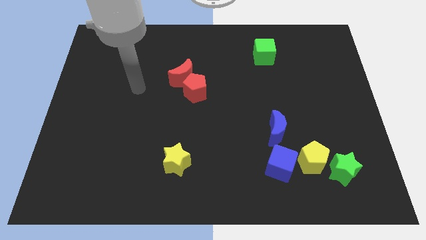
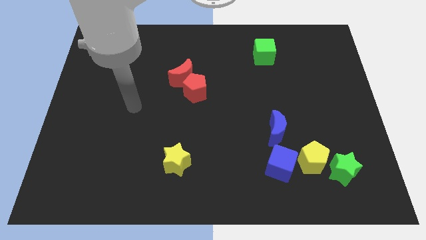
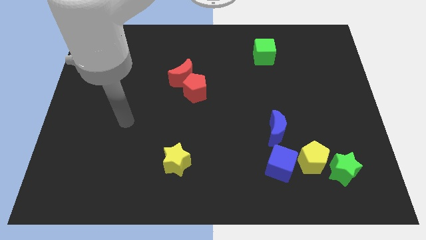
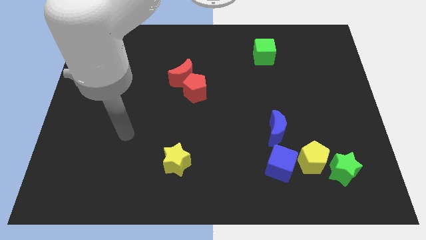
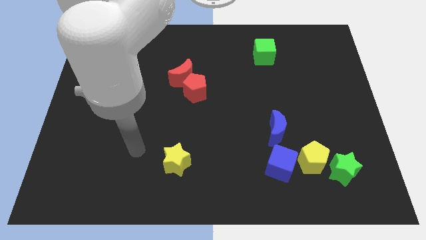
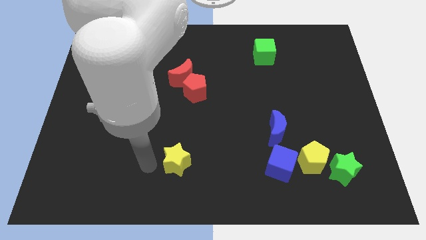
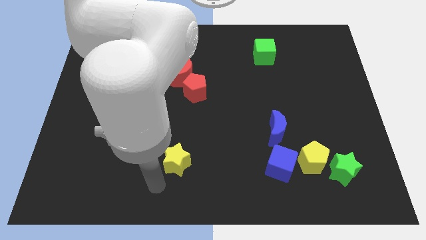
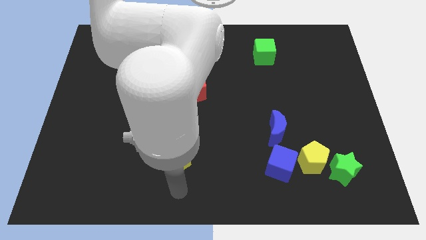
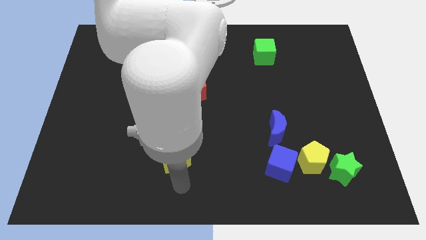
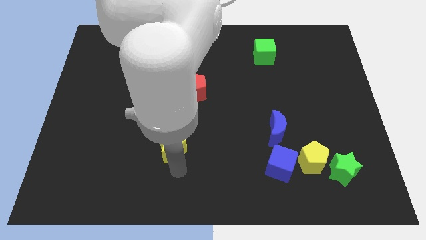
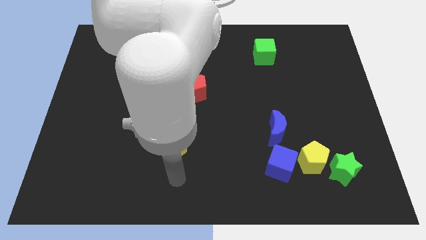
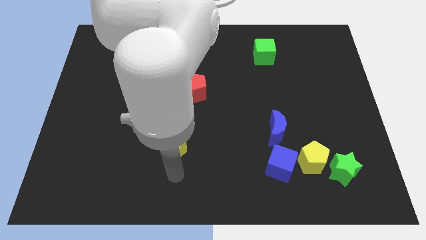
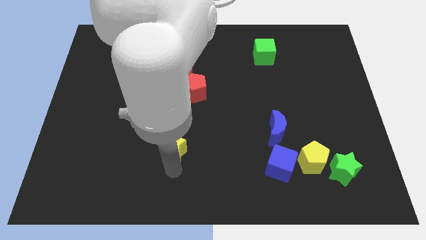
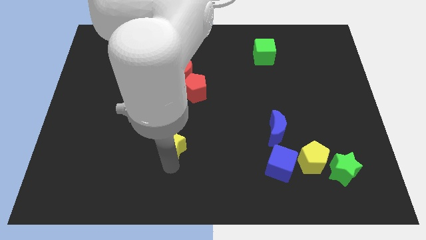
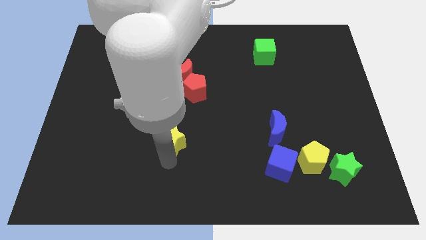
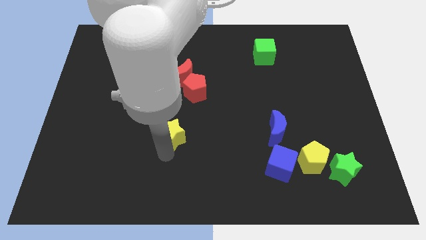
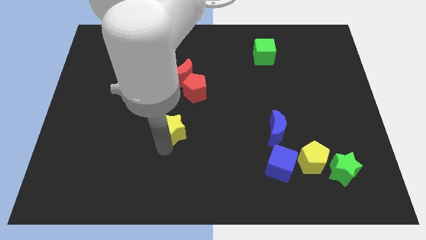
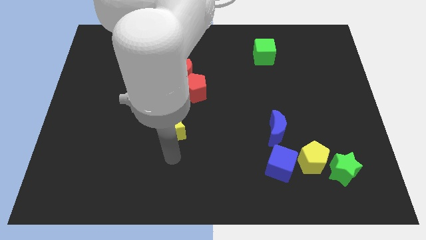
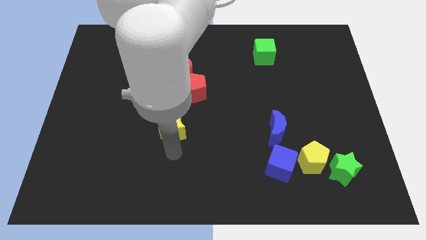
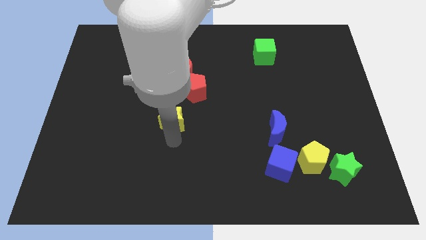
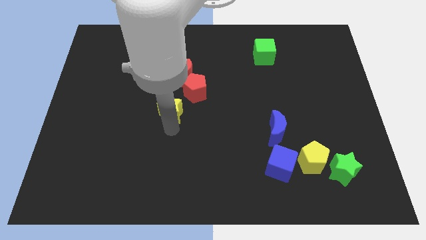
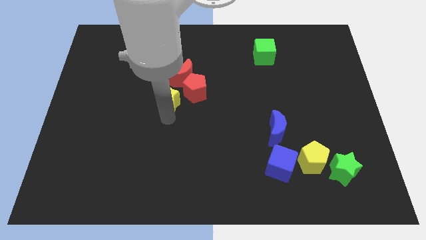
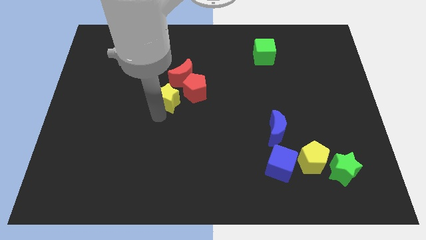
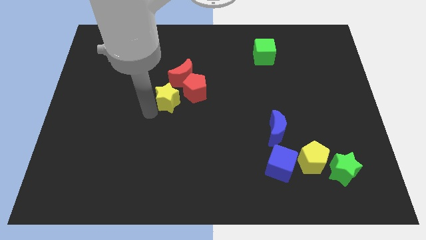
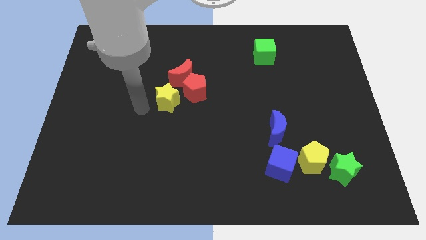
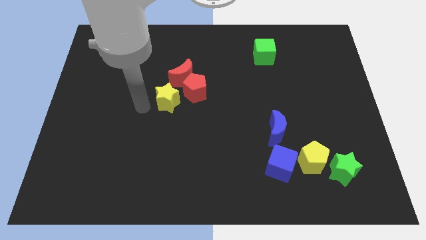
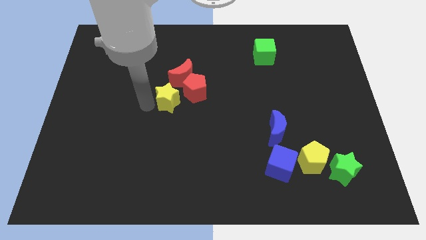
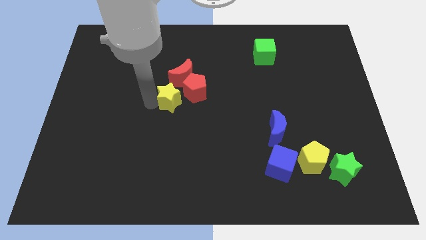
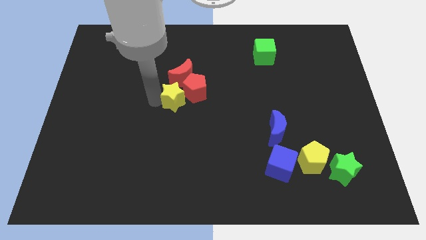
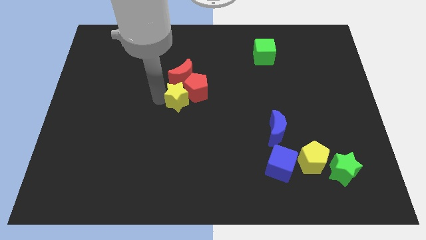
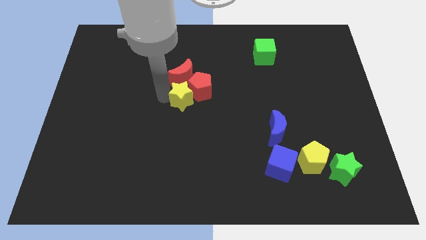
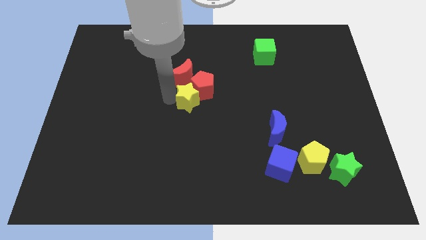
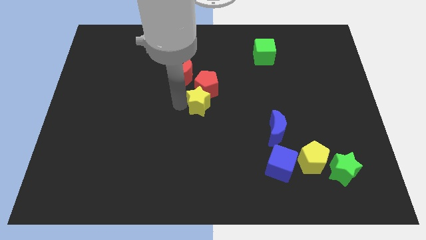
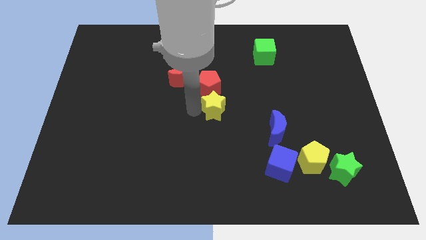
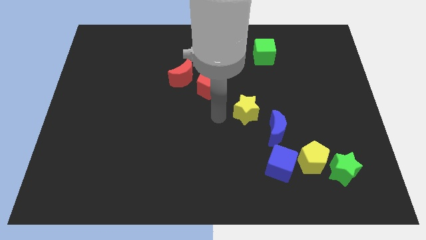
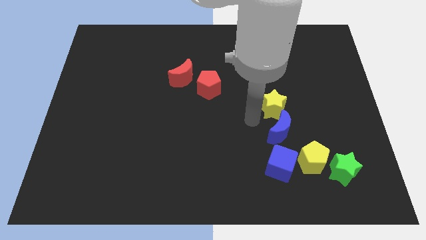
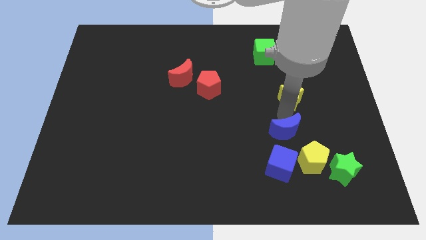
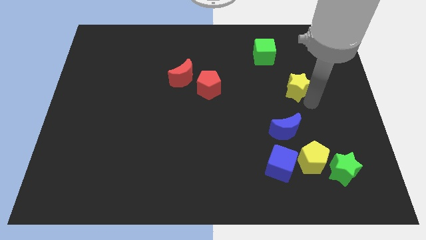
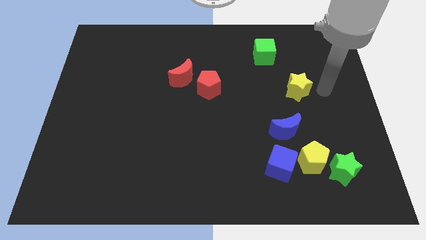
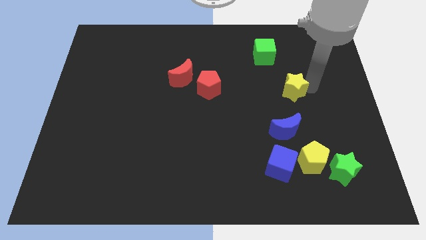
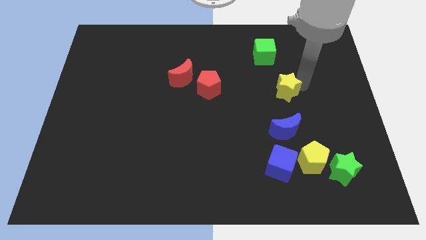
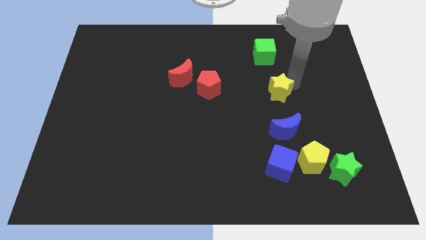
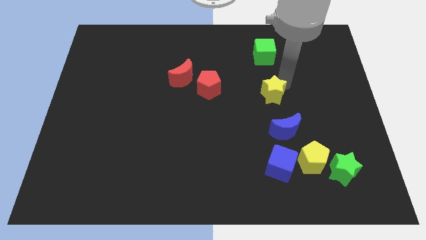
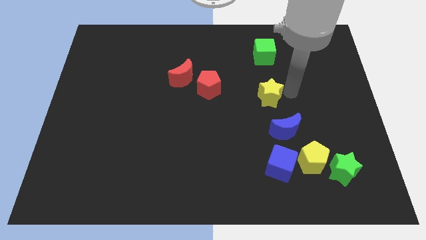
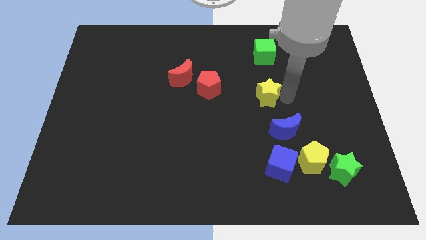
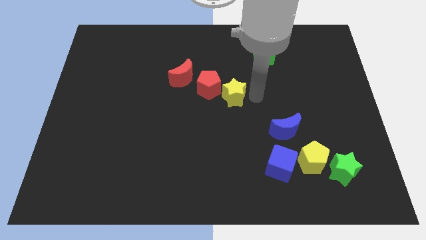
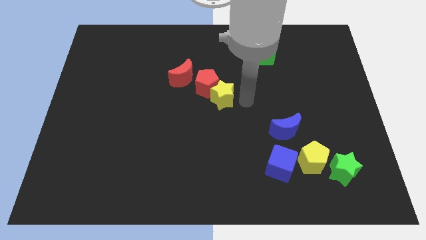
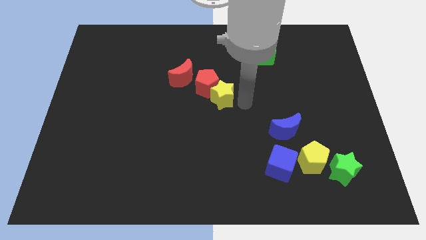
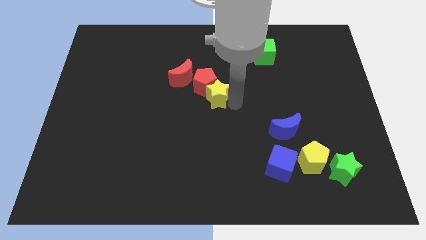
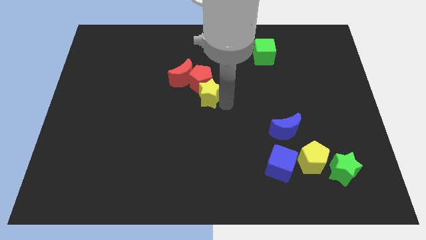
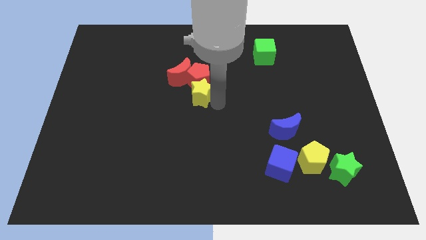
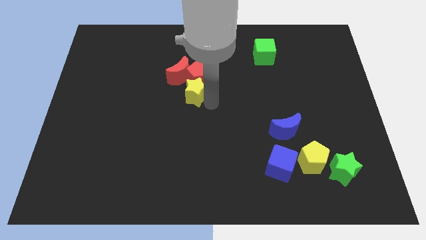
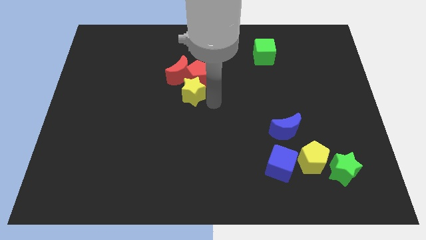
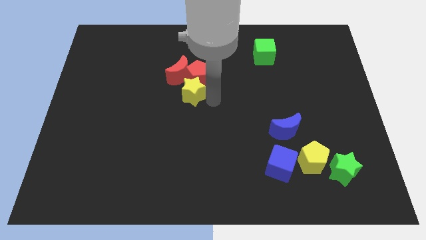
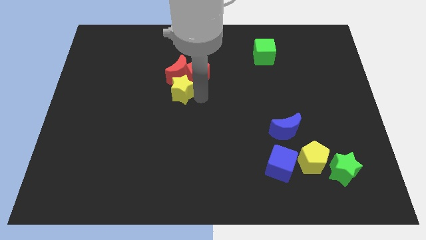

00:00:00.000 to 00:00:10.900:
slide the yellow star next to the red moon

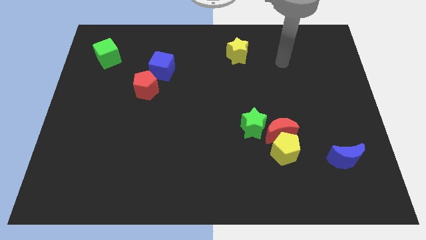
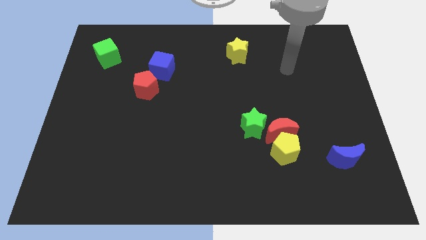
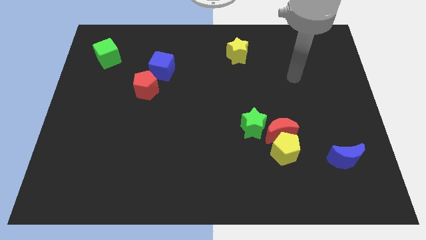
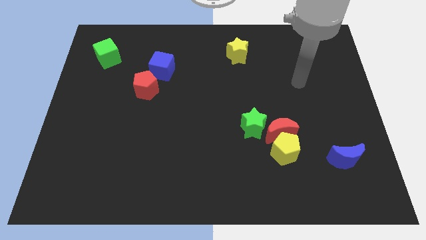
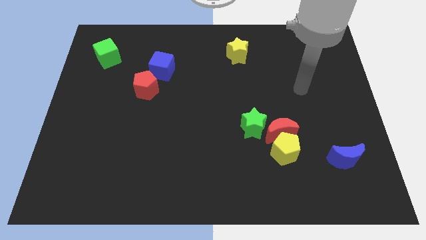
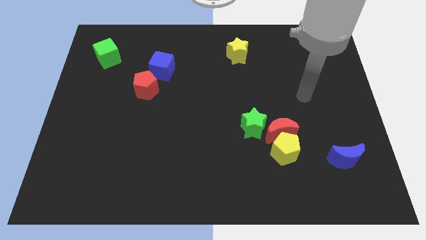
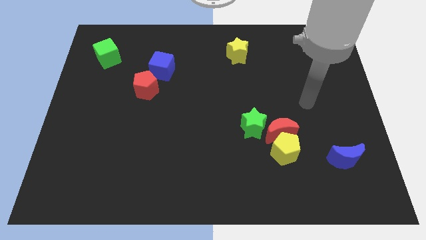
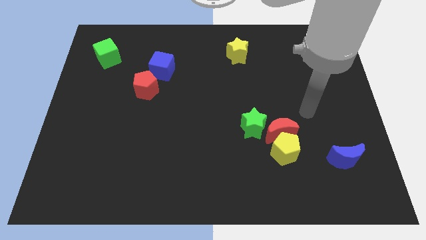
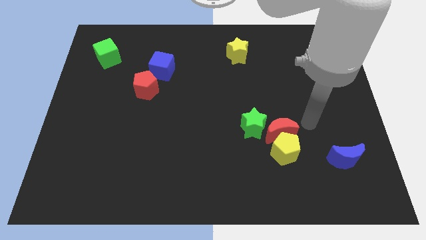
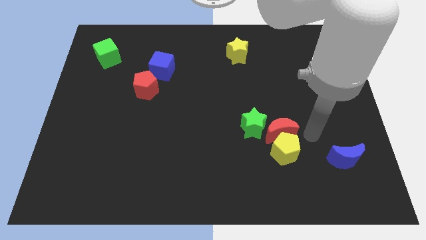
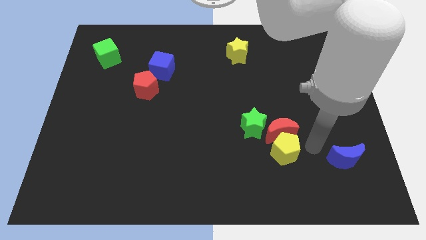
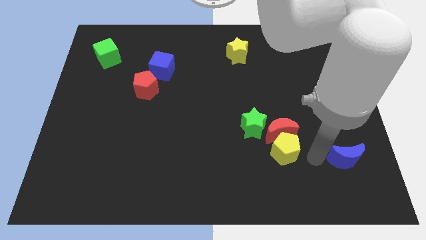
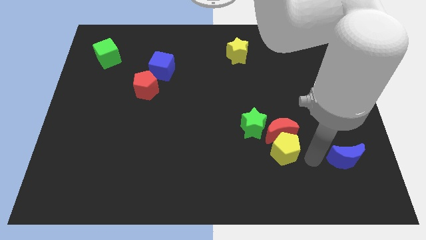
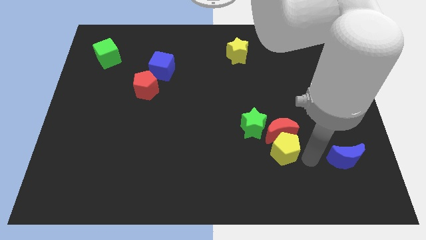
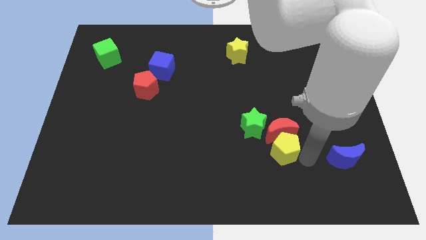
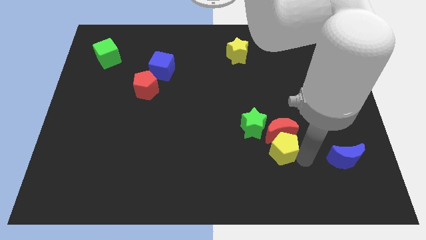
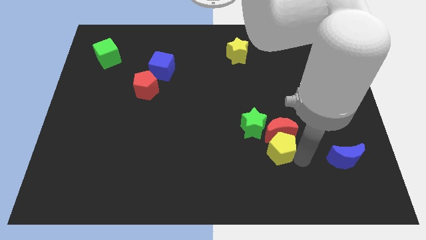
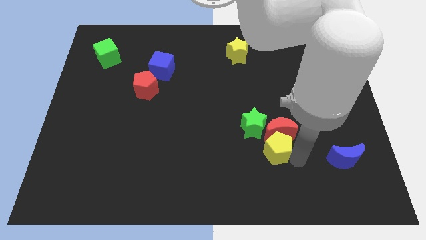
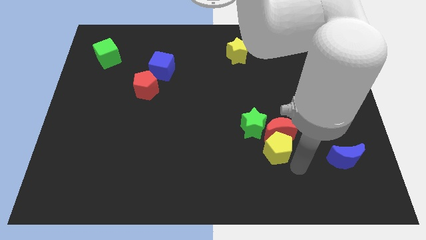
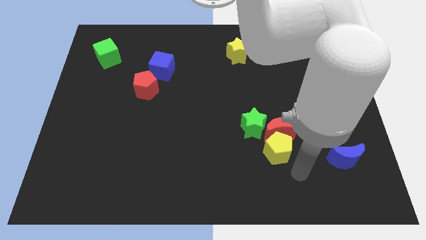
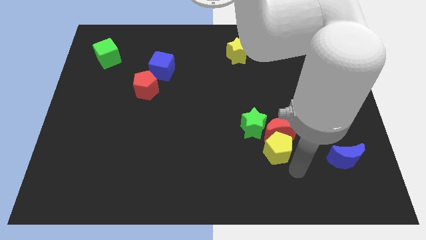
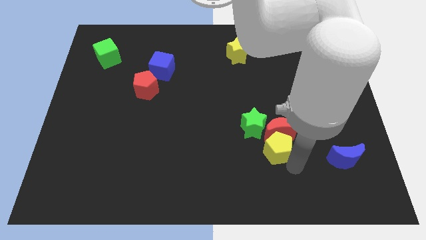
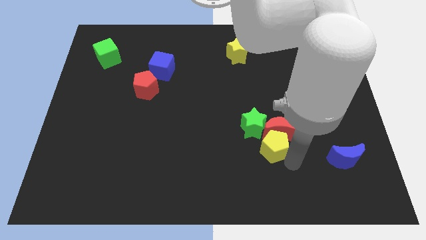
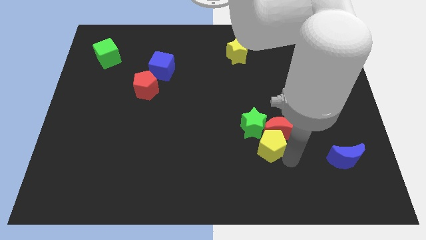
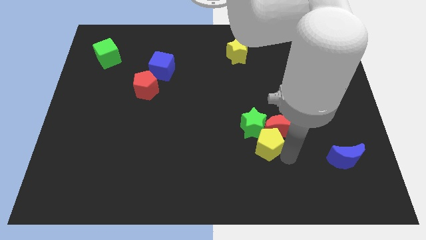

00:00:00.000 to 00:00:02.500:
slide the yellow pentagon towards the green star
